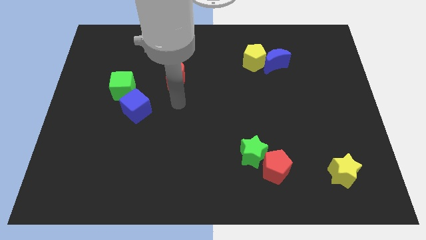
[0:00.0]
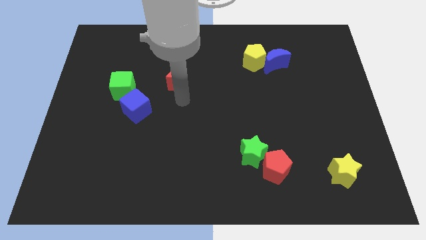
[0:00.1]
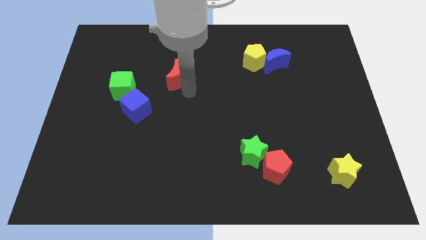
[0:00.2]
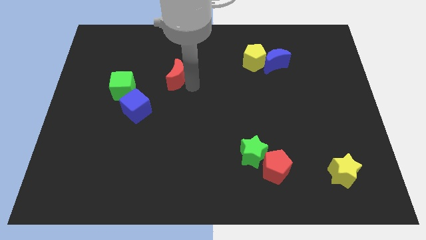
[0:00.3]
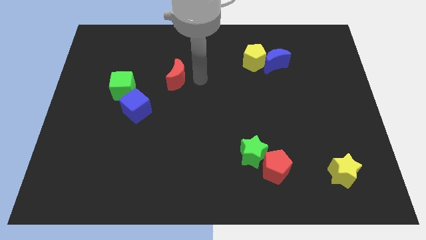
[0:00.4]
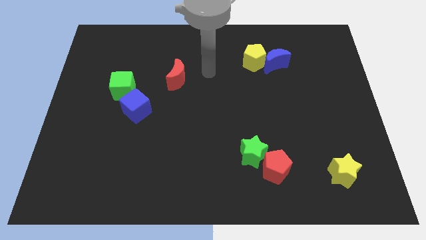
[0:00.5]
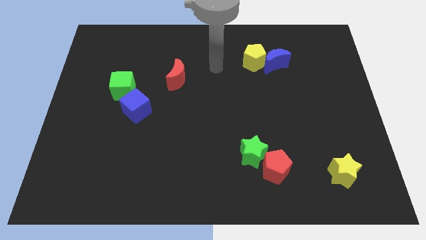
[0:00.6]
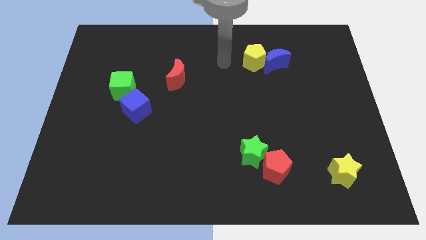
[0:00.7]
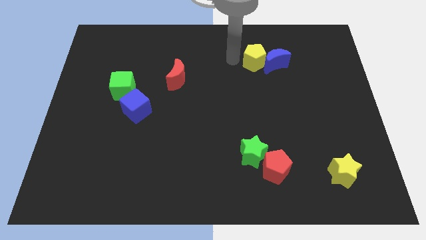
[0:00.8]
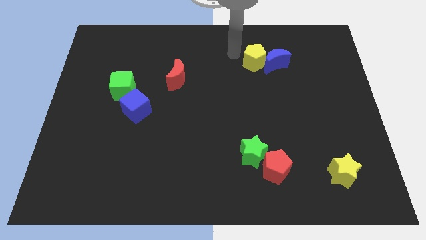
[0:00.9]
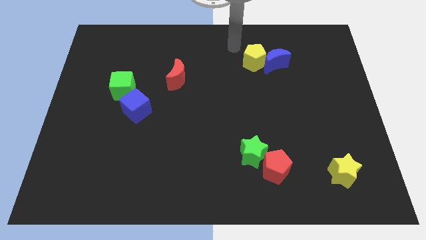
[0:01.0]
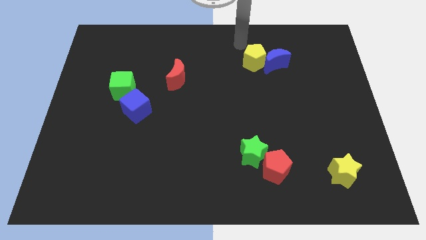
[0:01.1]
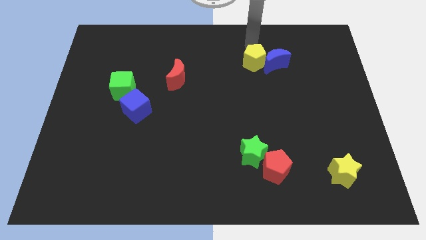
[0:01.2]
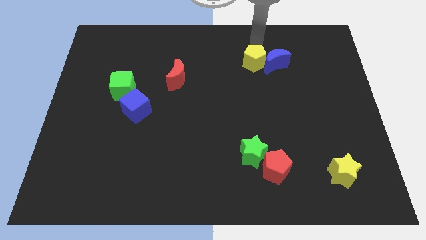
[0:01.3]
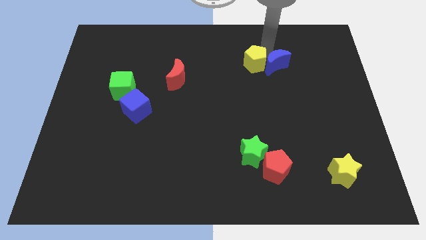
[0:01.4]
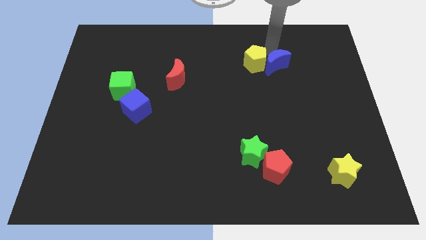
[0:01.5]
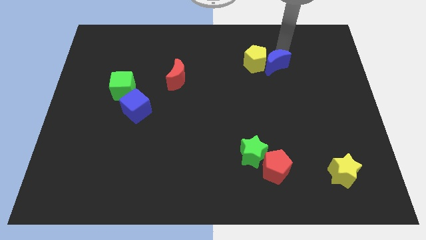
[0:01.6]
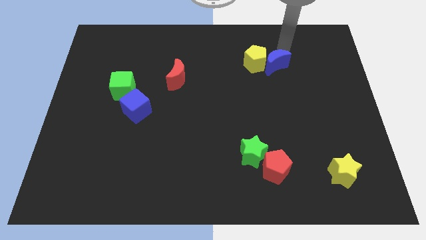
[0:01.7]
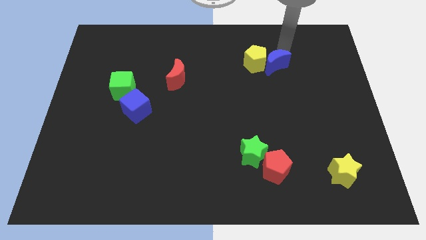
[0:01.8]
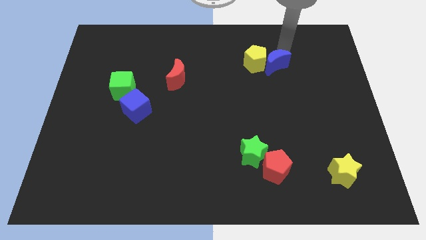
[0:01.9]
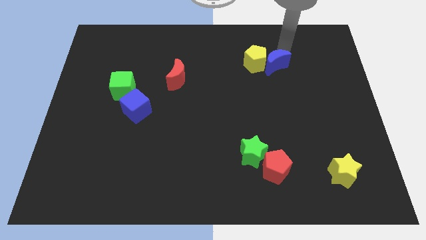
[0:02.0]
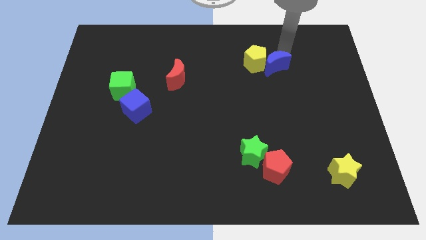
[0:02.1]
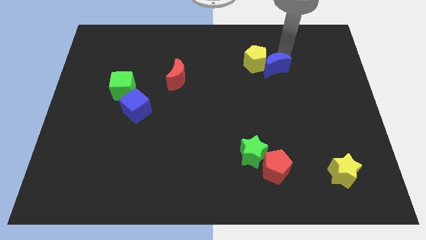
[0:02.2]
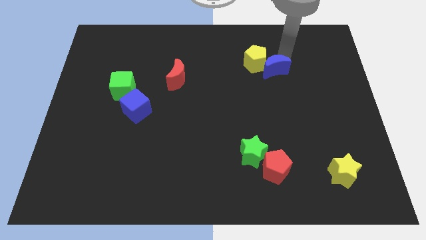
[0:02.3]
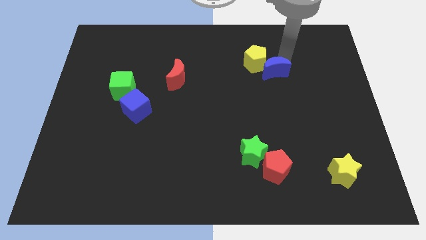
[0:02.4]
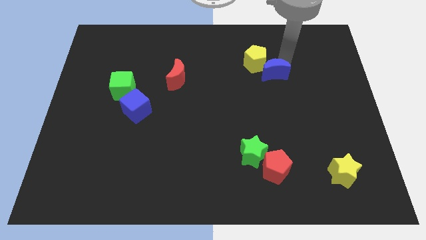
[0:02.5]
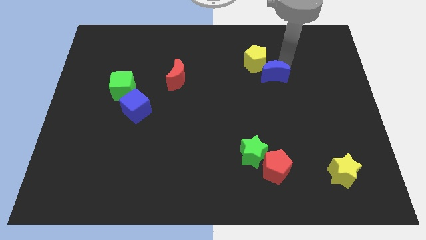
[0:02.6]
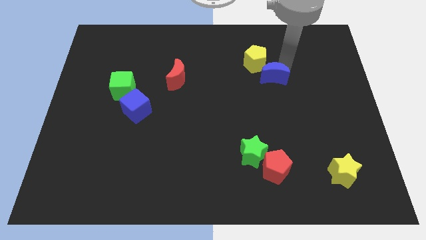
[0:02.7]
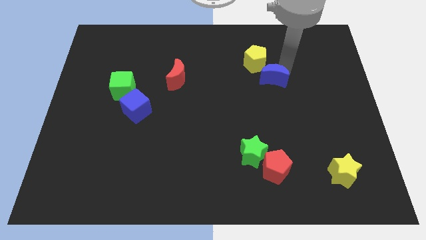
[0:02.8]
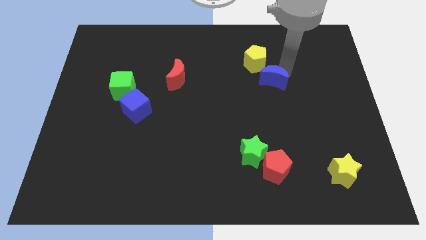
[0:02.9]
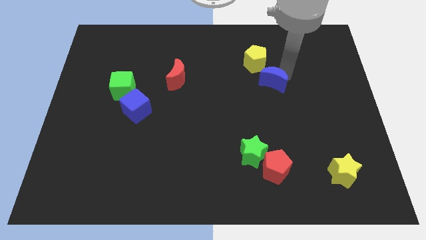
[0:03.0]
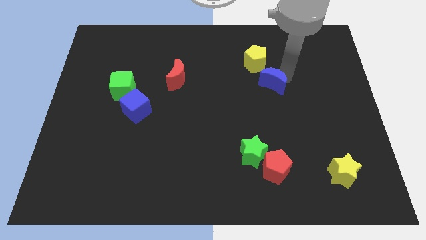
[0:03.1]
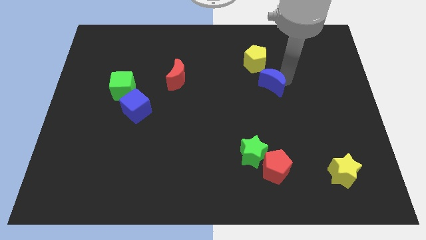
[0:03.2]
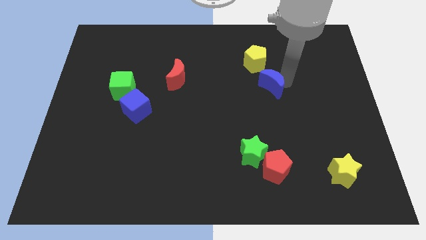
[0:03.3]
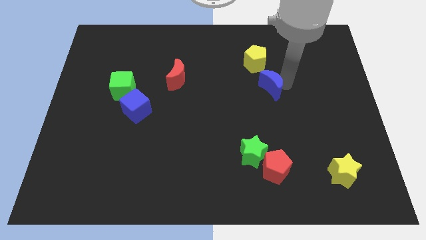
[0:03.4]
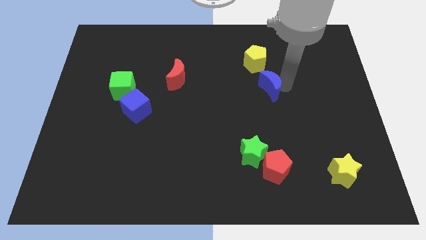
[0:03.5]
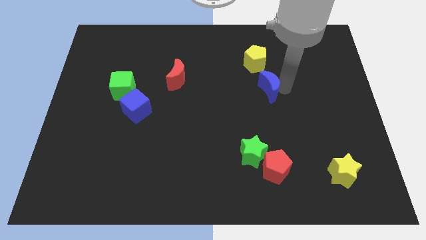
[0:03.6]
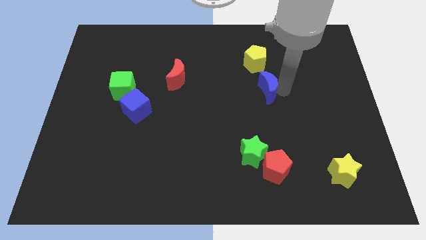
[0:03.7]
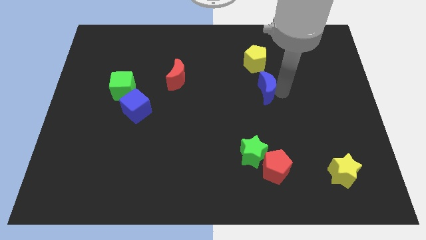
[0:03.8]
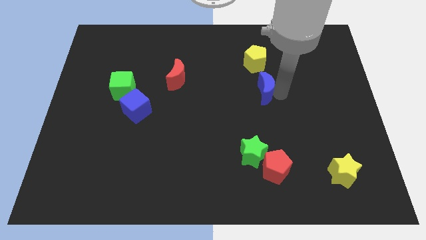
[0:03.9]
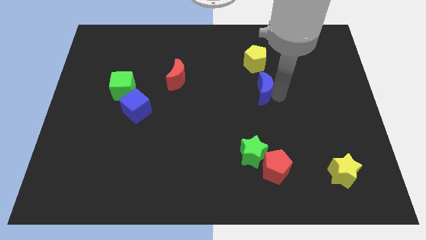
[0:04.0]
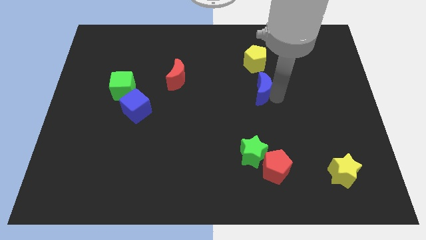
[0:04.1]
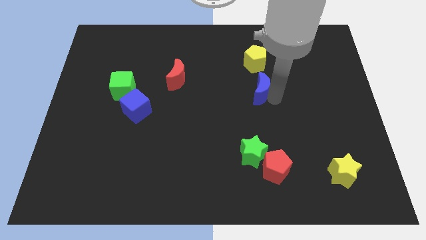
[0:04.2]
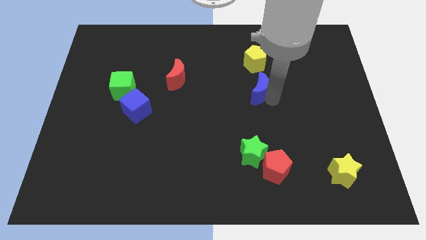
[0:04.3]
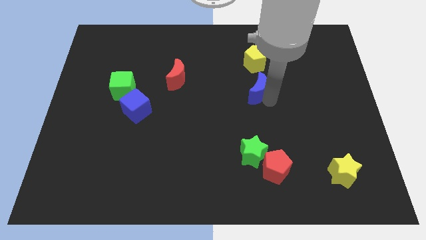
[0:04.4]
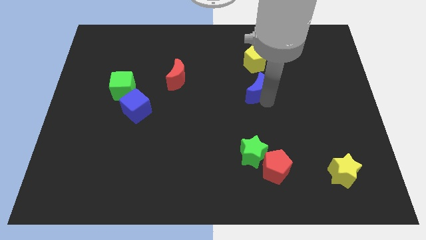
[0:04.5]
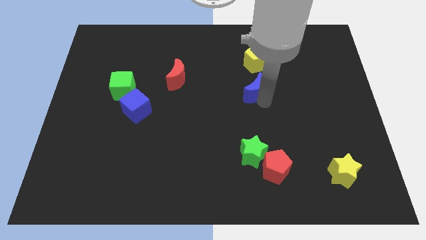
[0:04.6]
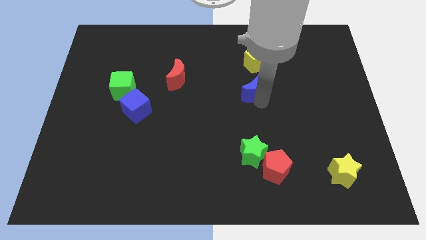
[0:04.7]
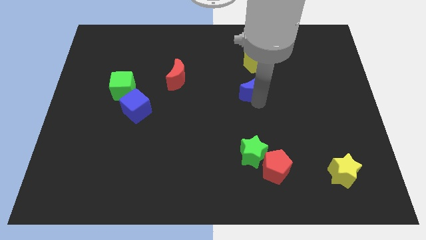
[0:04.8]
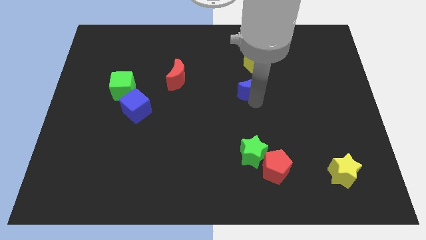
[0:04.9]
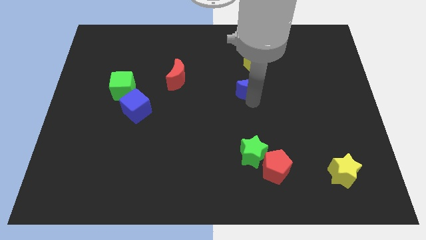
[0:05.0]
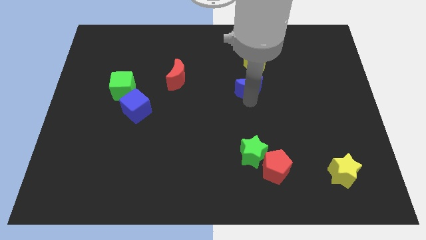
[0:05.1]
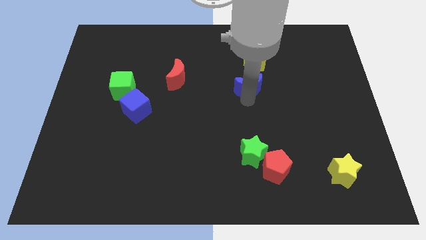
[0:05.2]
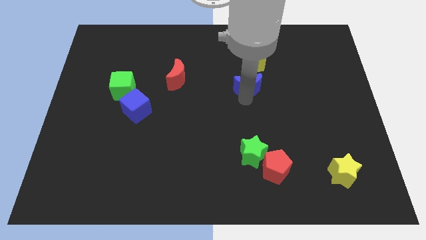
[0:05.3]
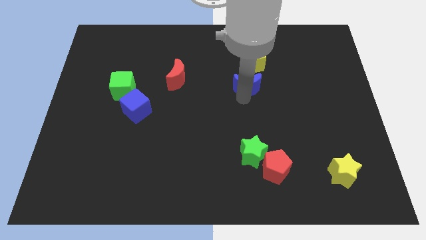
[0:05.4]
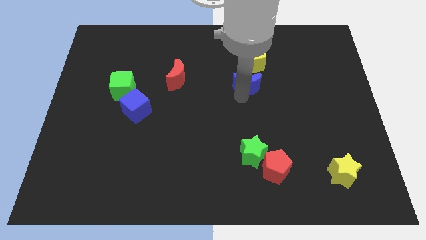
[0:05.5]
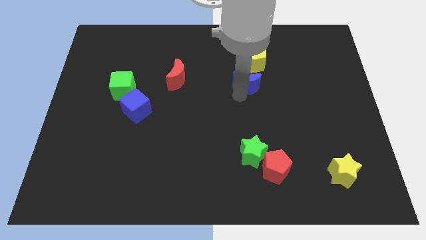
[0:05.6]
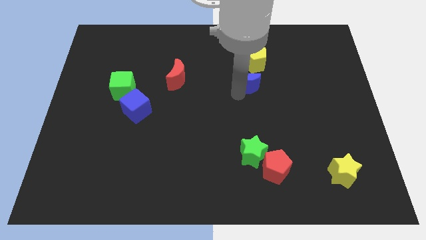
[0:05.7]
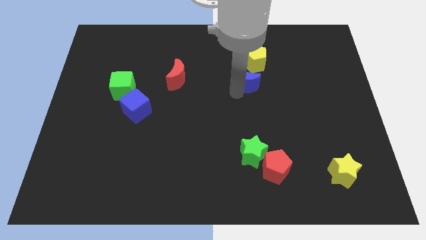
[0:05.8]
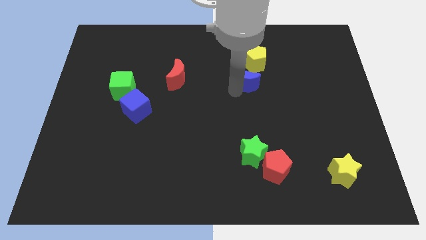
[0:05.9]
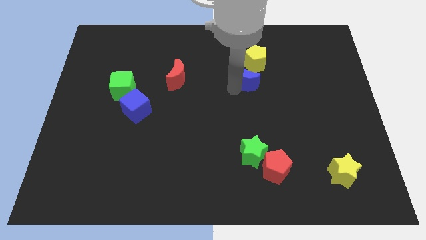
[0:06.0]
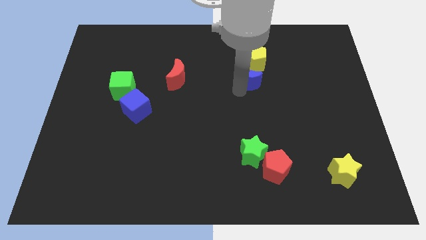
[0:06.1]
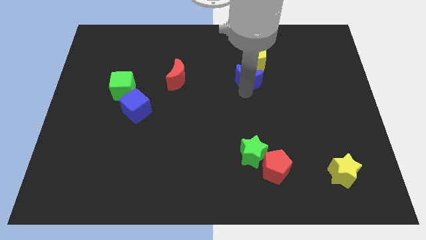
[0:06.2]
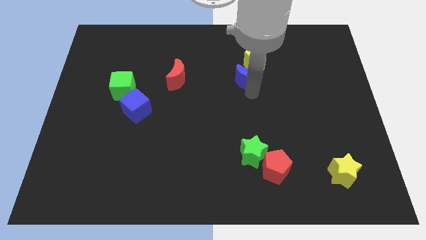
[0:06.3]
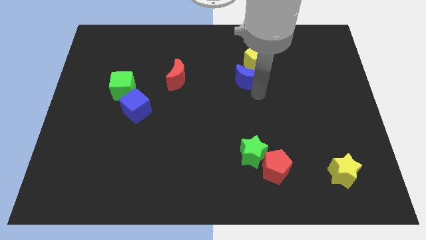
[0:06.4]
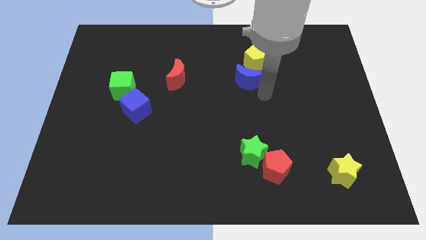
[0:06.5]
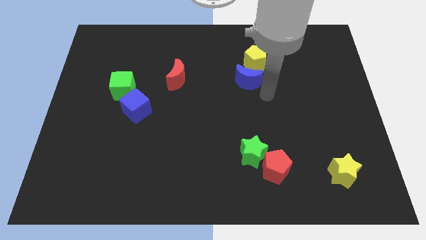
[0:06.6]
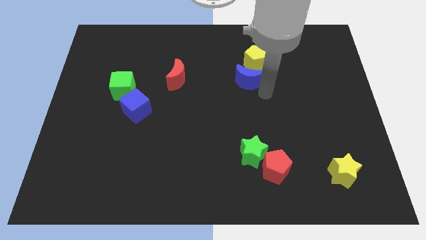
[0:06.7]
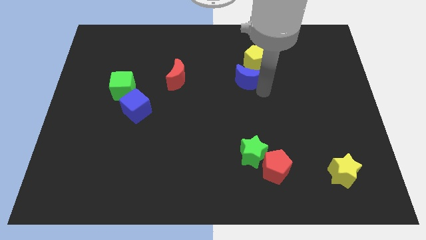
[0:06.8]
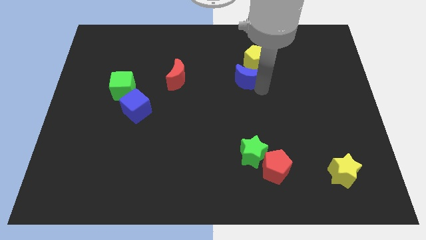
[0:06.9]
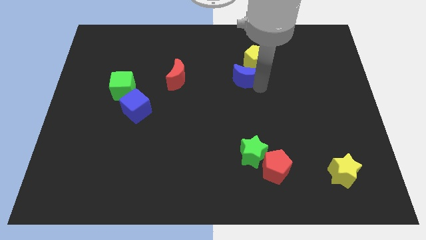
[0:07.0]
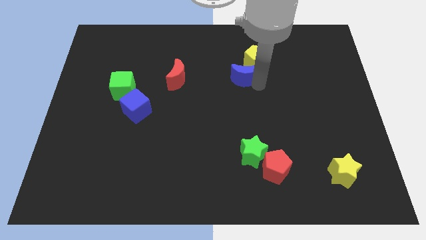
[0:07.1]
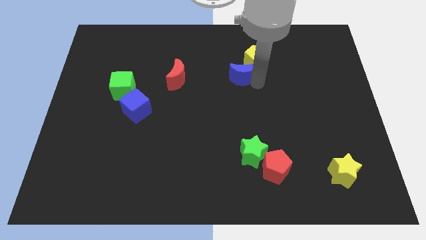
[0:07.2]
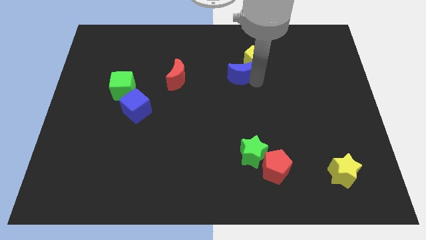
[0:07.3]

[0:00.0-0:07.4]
put the blue moon to the left side of the yellow pentagon
